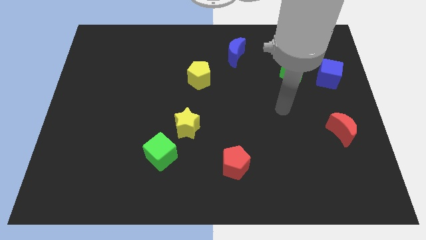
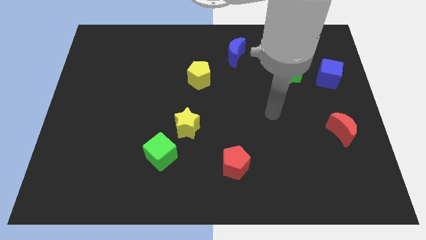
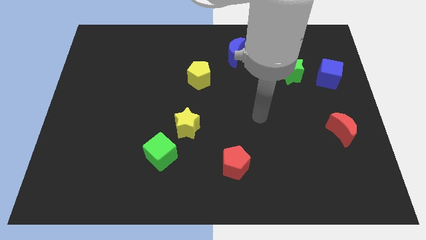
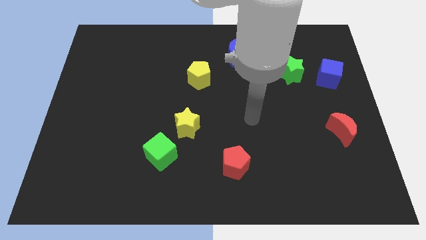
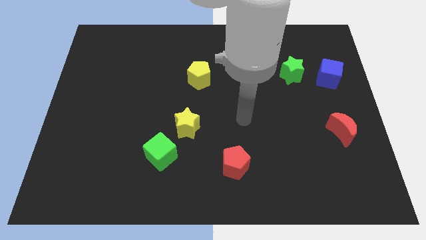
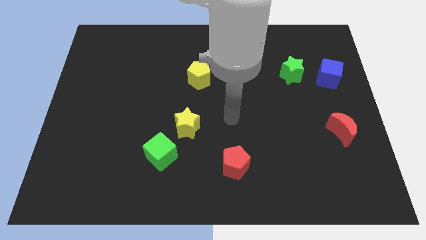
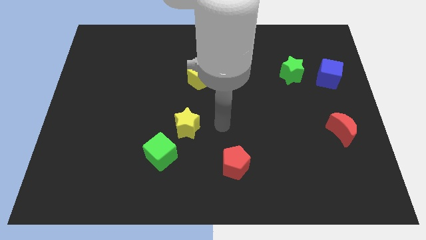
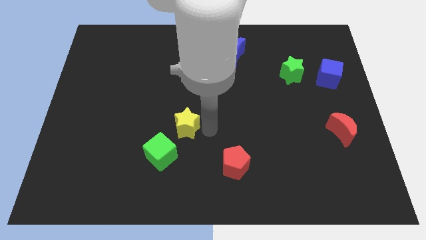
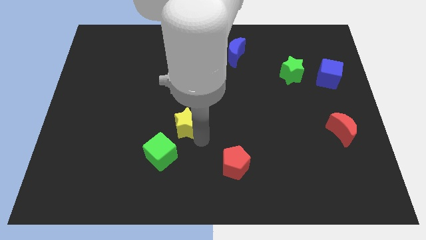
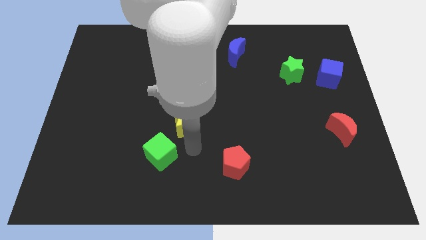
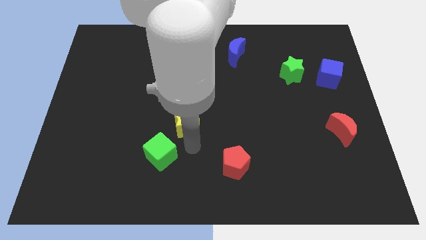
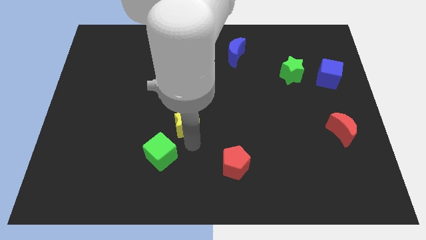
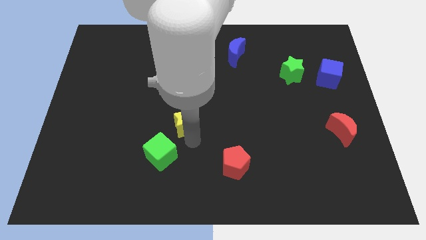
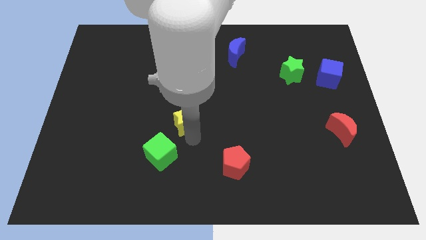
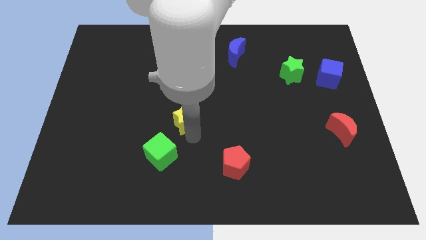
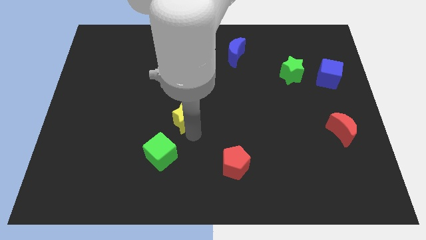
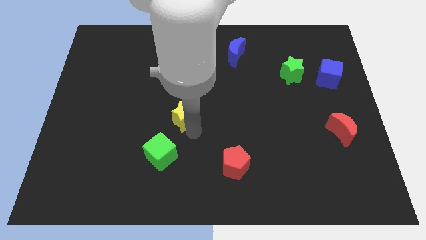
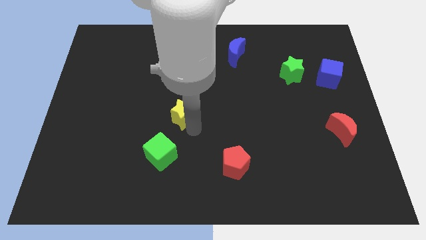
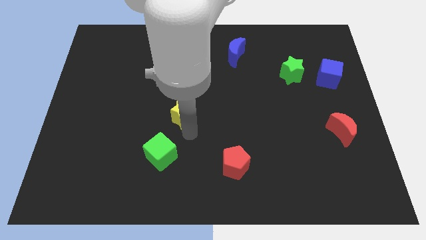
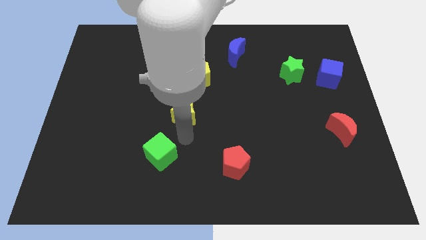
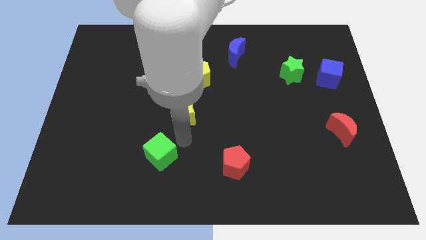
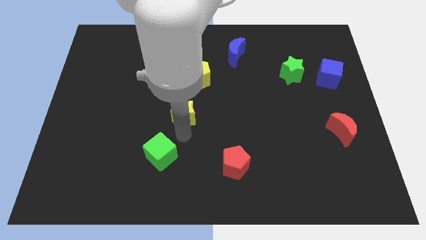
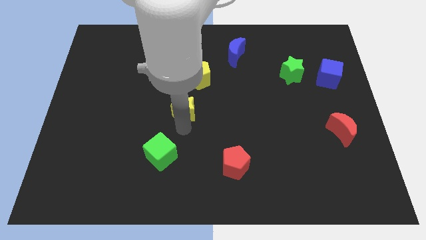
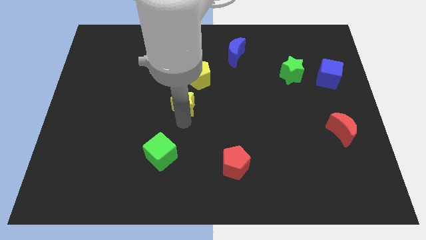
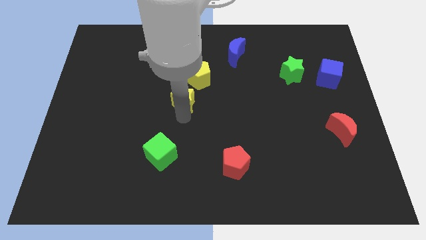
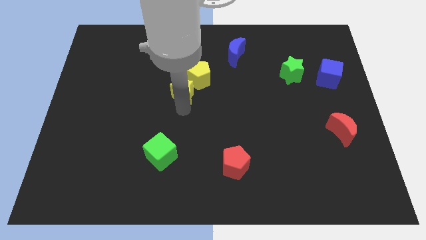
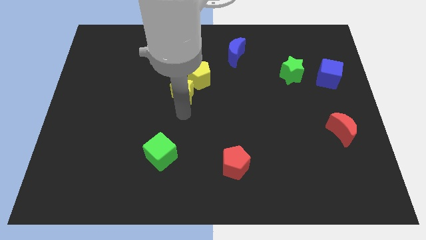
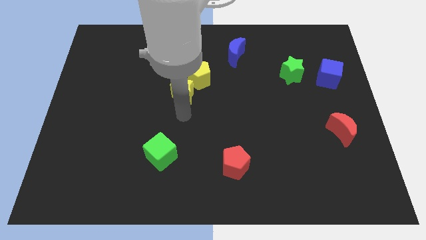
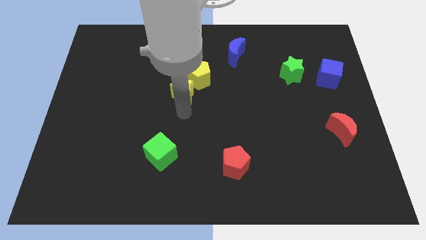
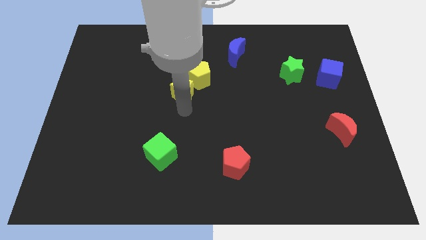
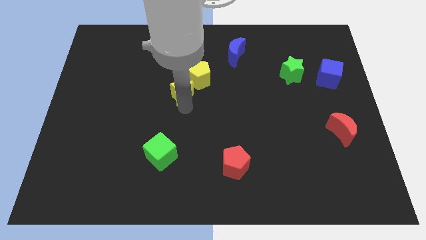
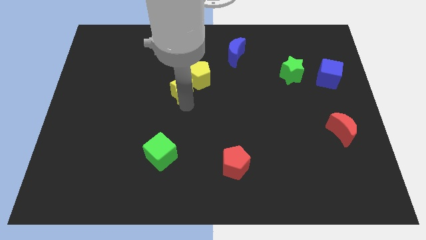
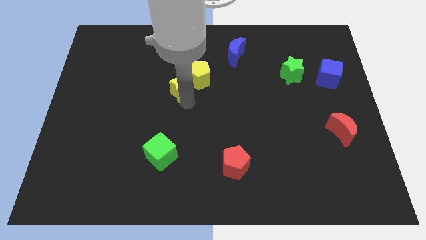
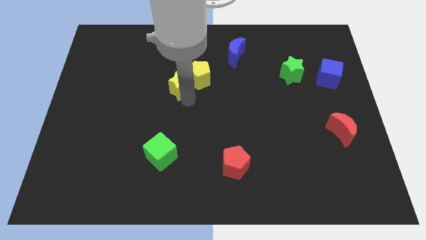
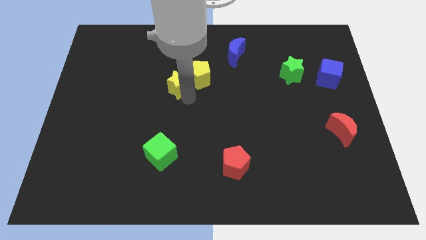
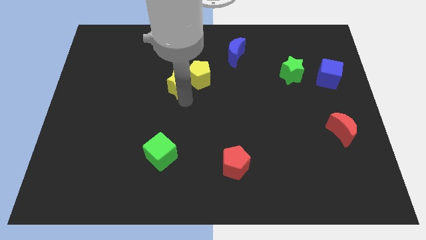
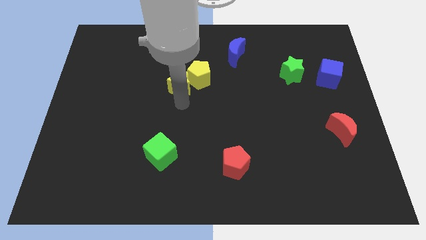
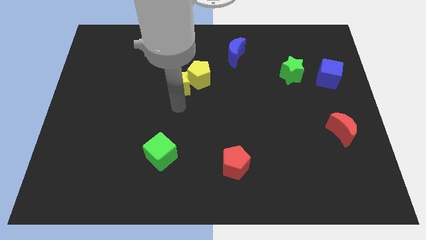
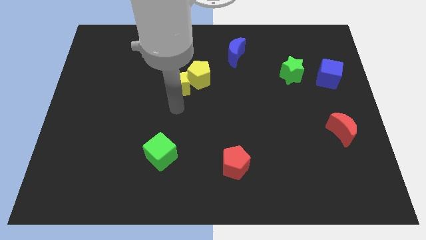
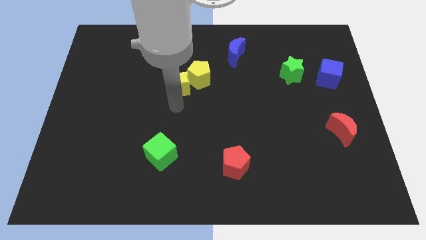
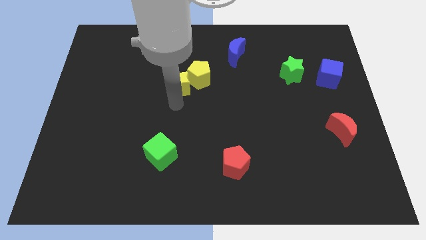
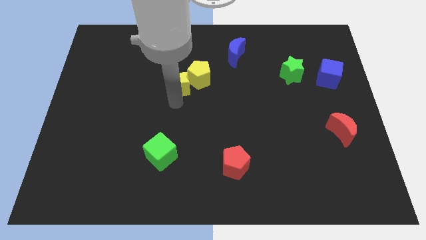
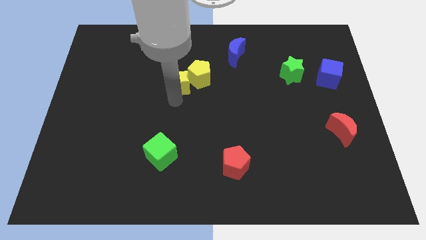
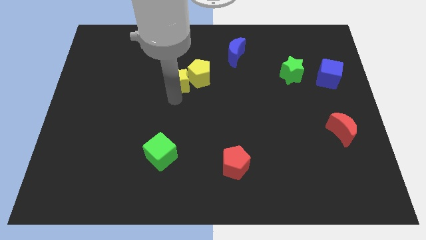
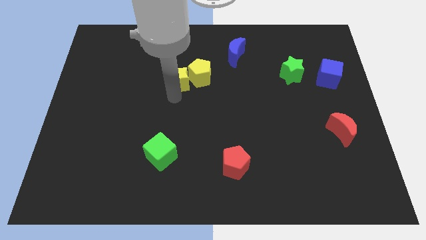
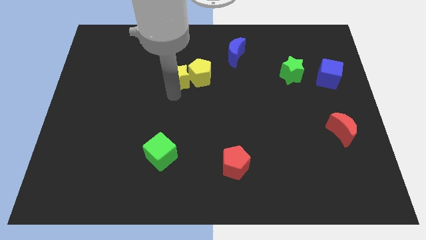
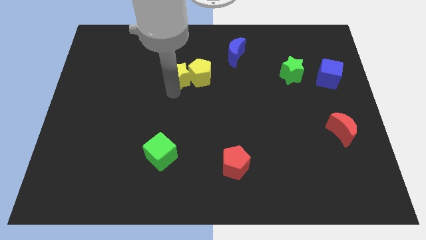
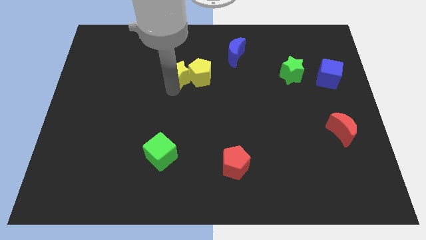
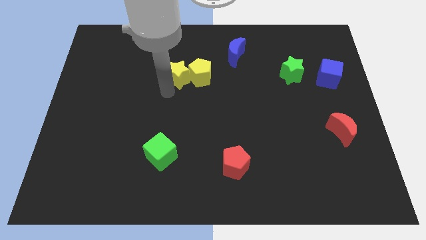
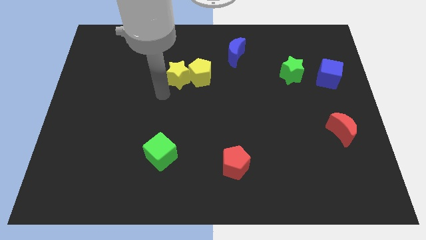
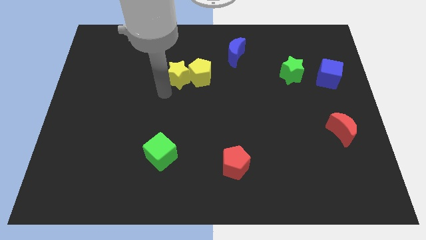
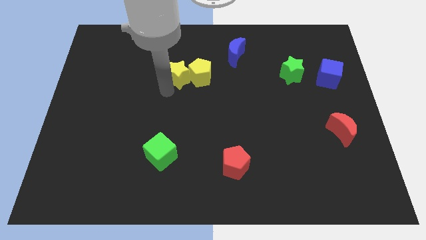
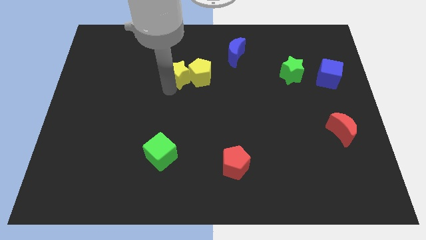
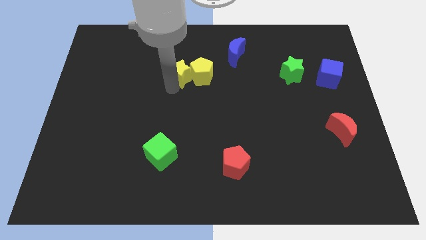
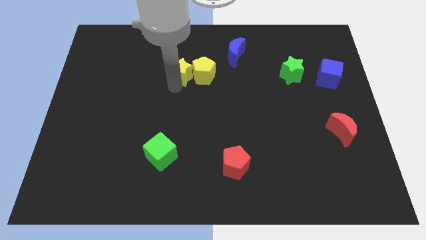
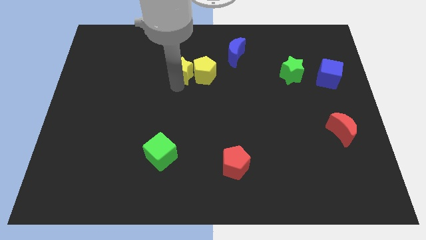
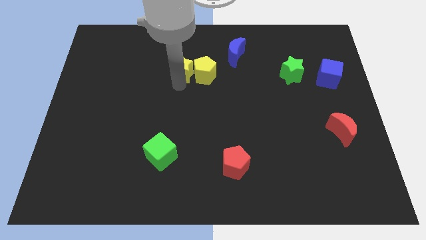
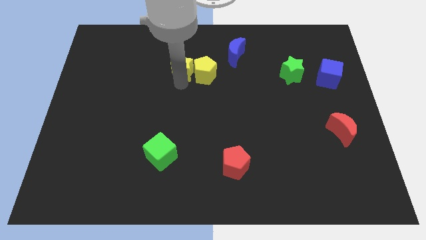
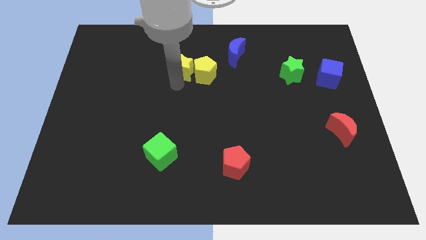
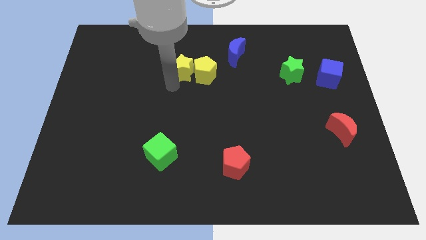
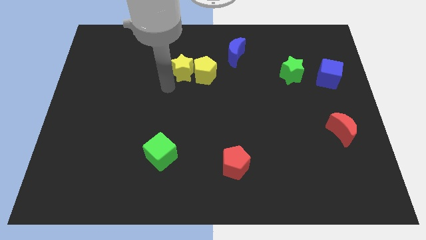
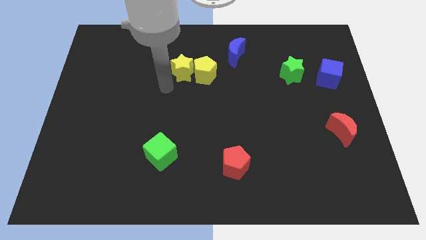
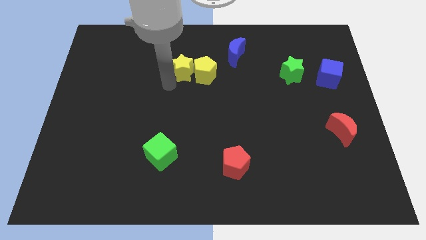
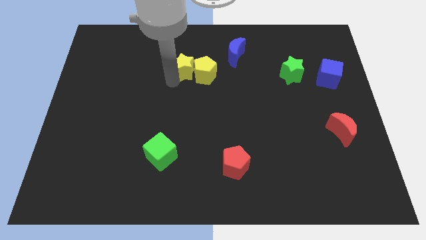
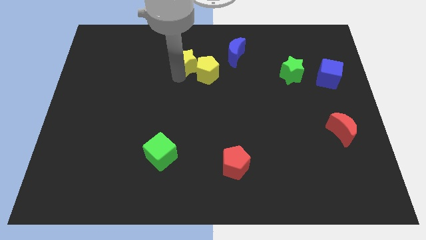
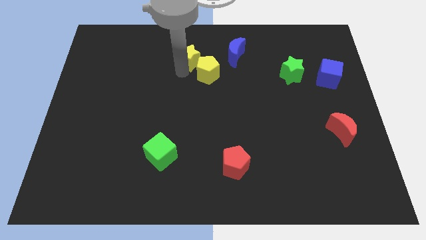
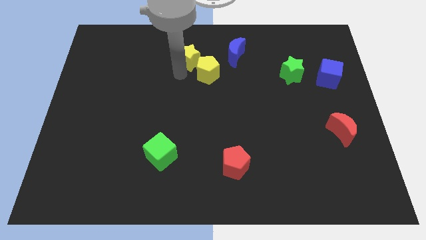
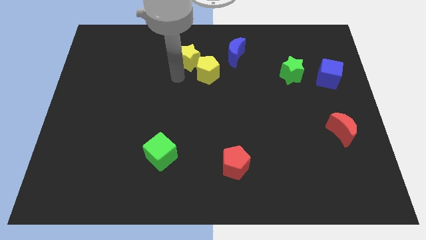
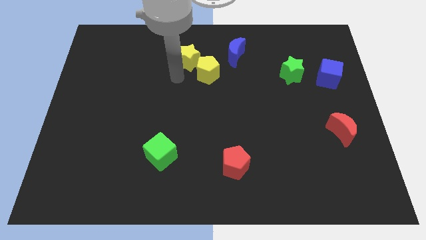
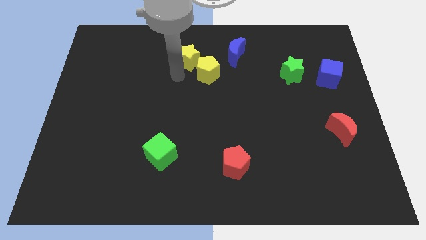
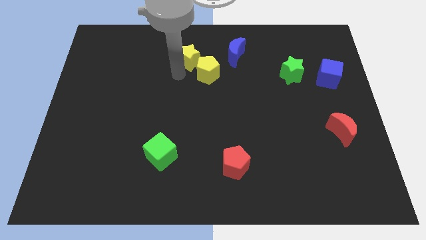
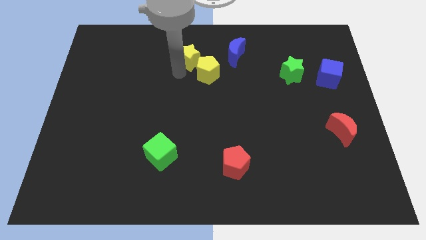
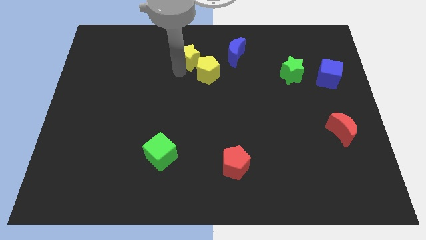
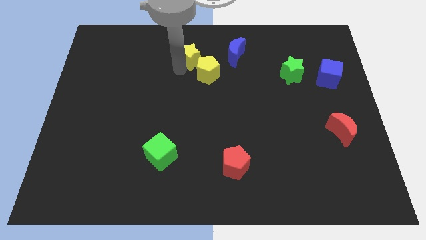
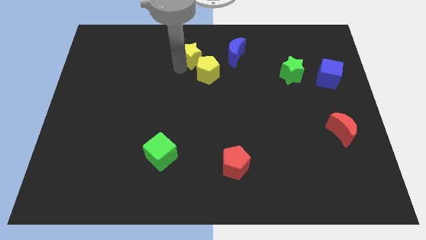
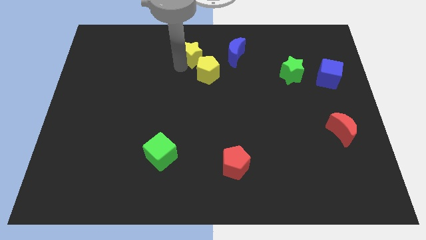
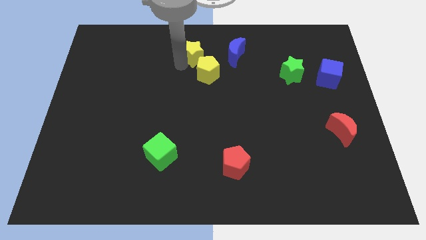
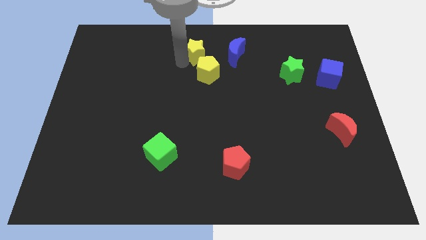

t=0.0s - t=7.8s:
slide the yellow star to the top
